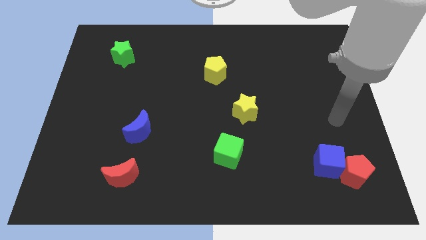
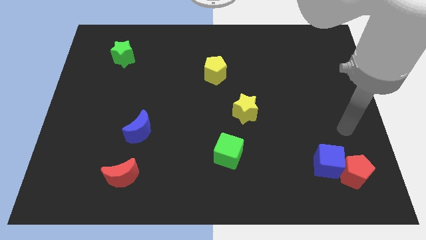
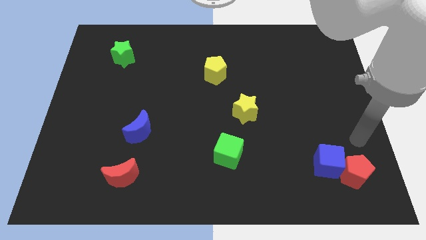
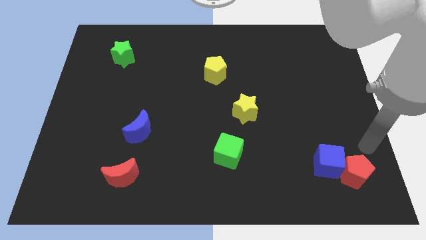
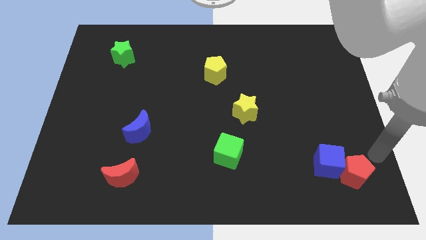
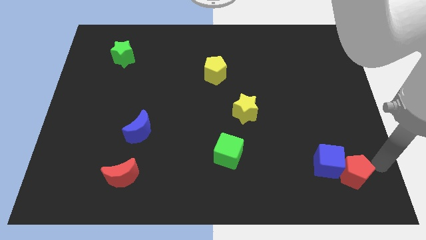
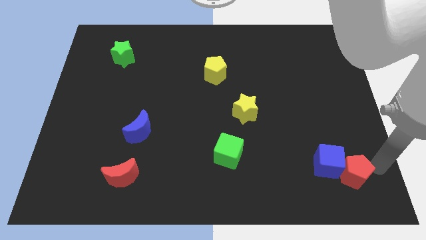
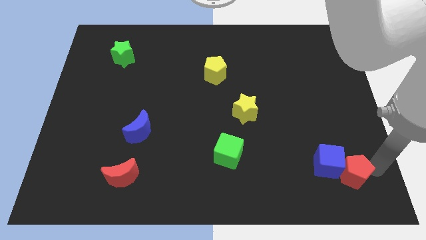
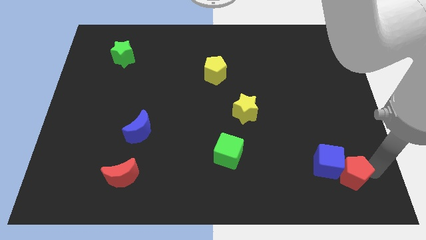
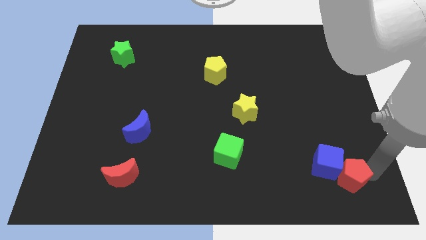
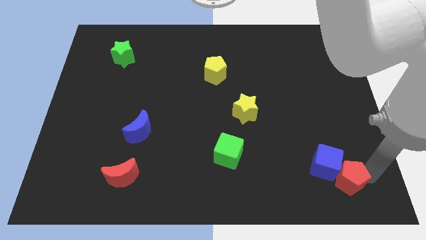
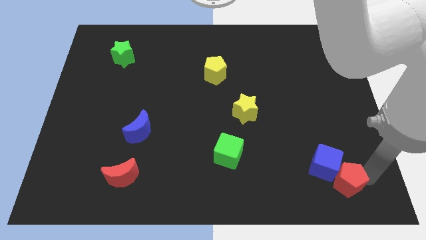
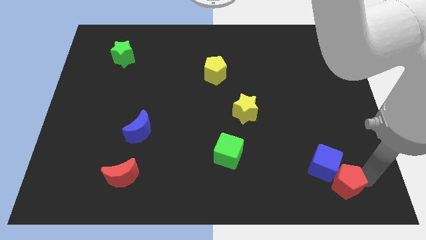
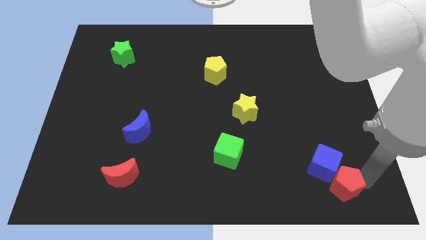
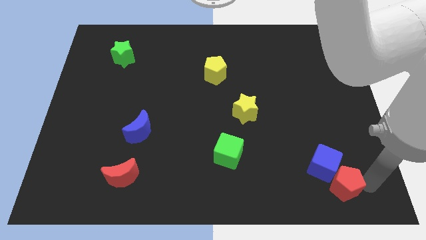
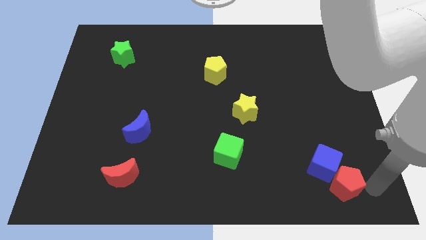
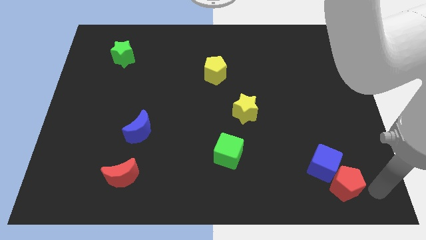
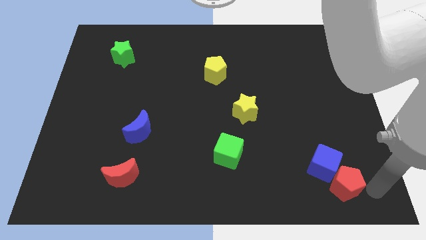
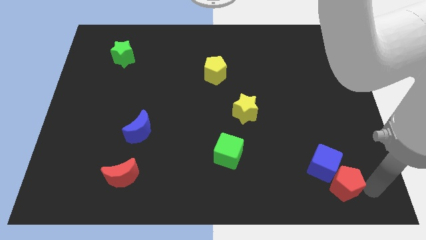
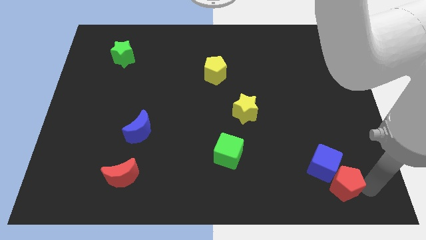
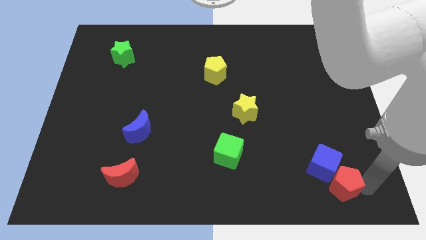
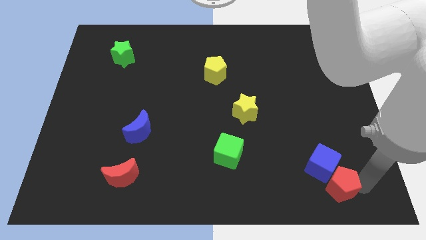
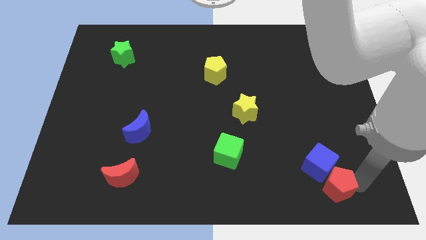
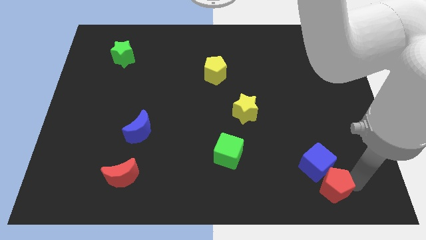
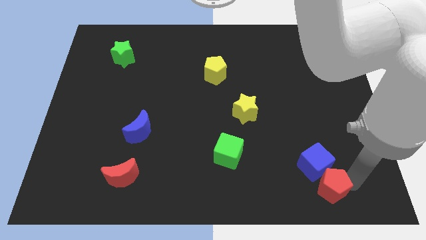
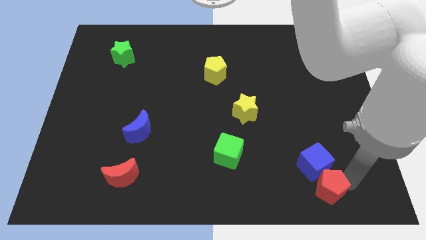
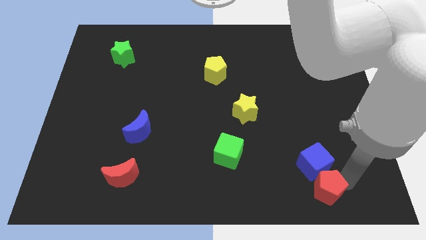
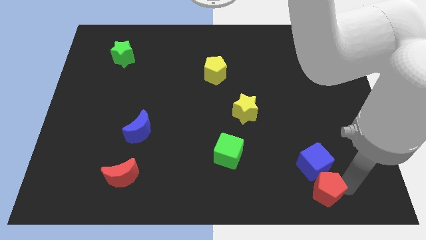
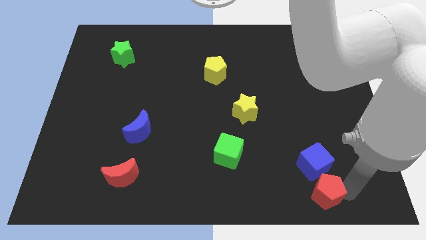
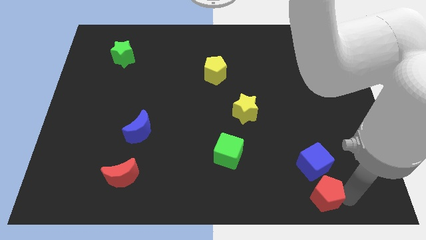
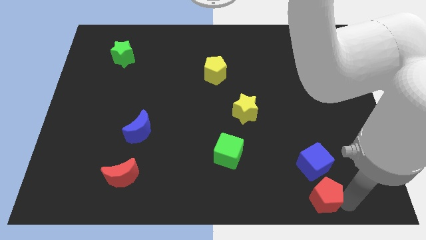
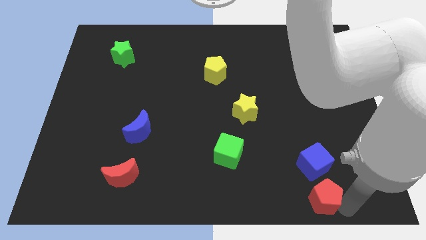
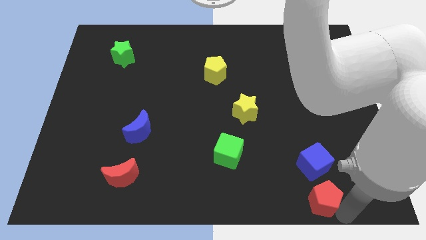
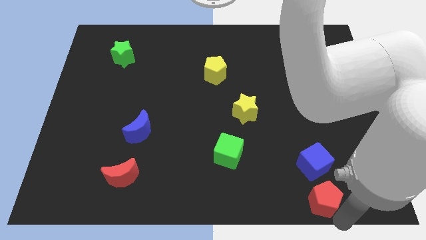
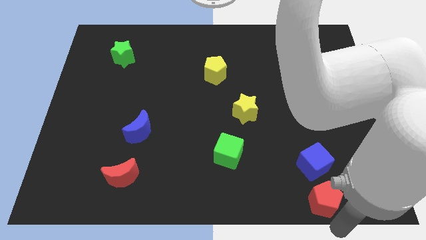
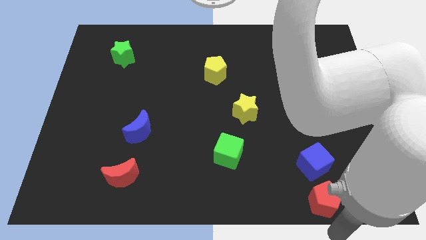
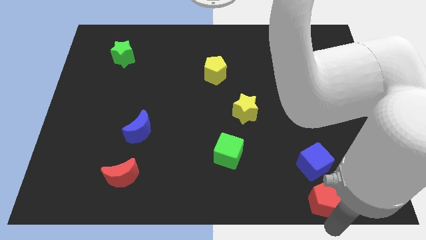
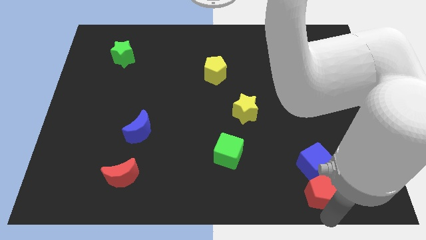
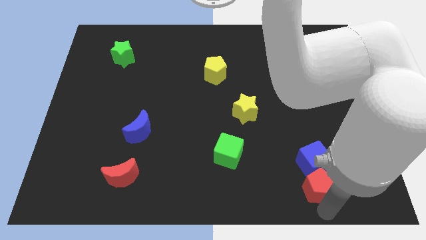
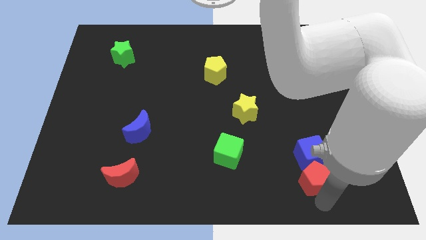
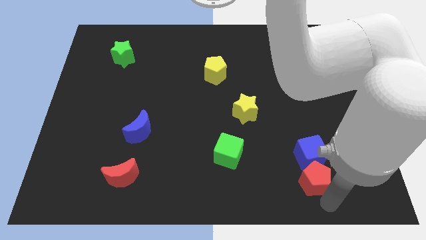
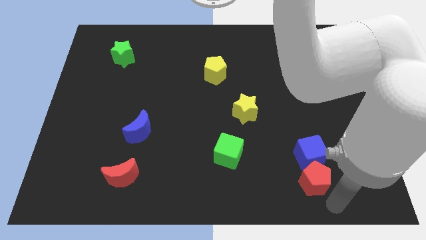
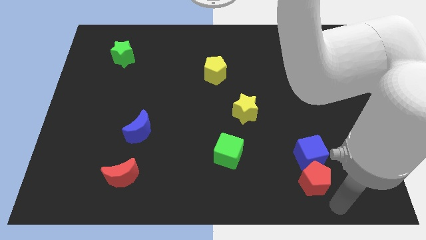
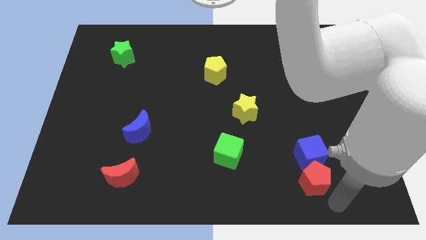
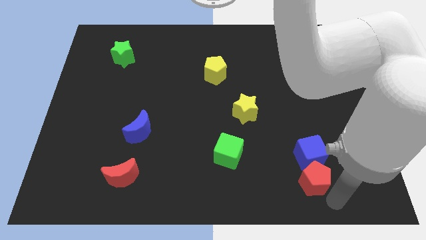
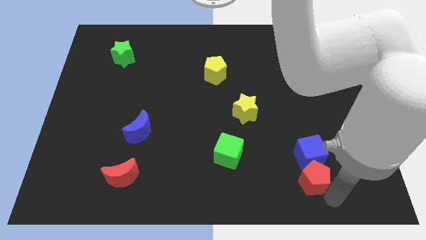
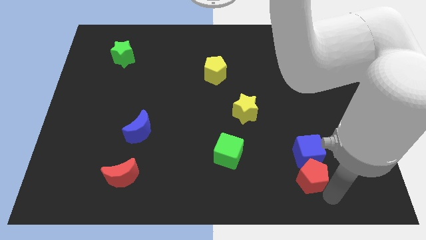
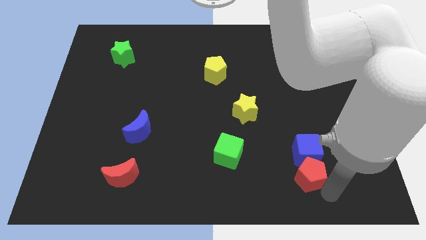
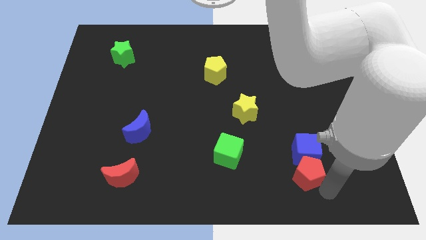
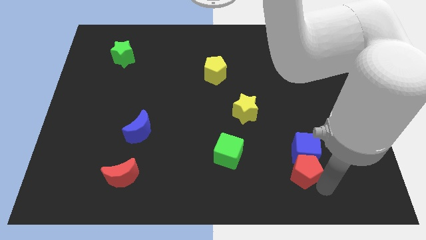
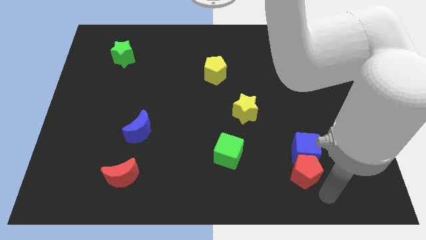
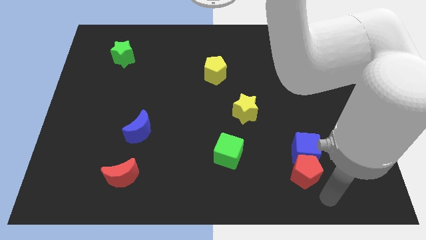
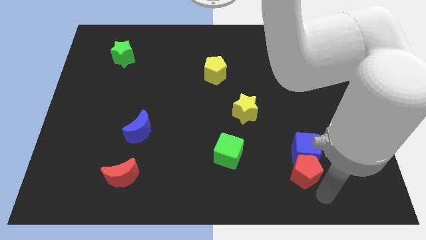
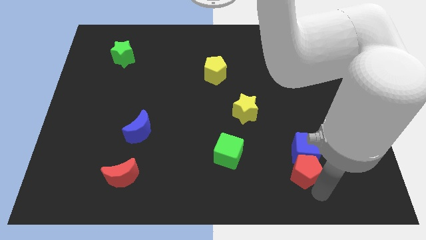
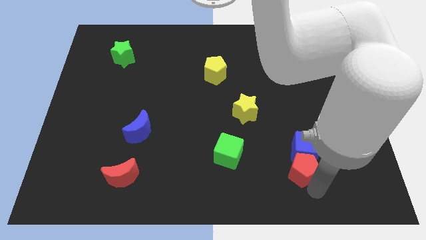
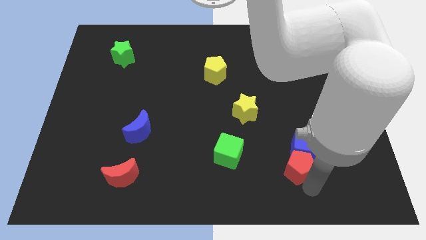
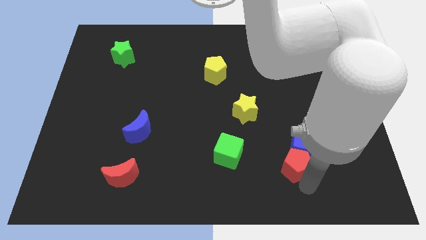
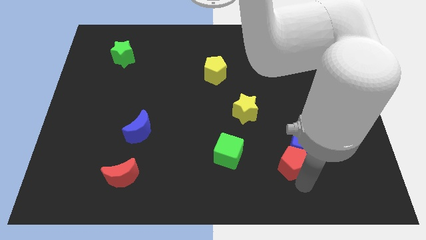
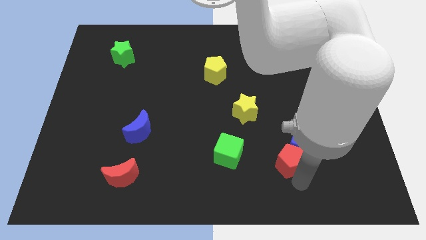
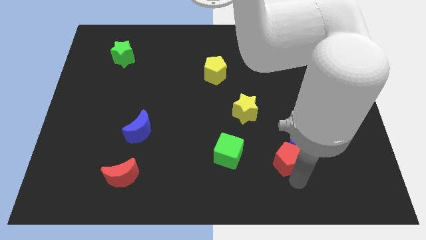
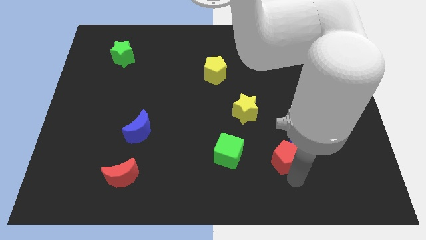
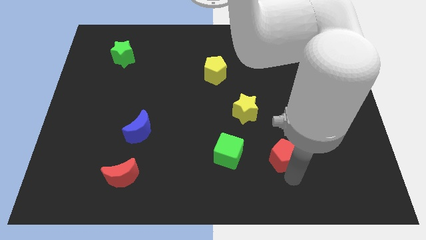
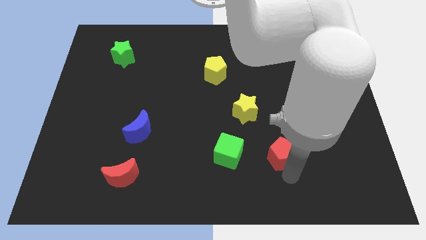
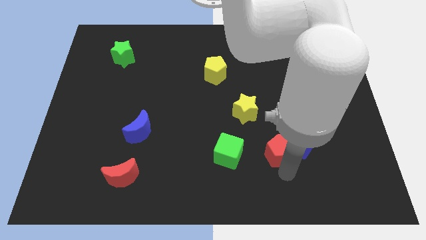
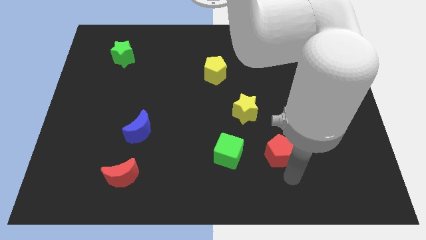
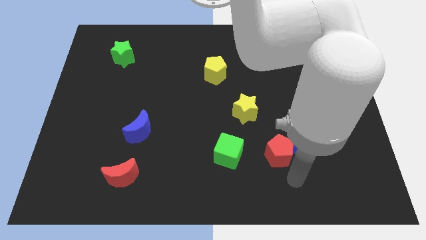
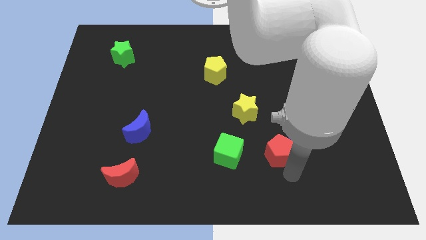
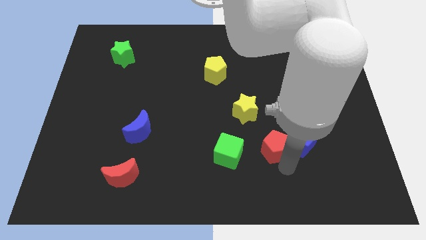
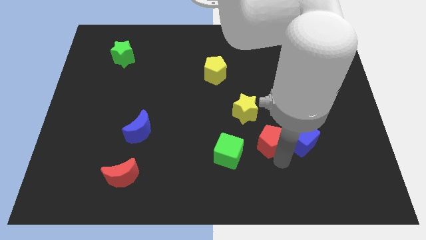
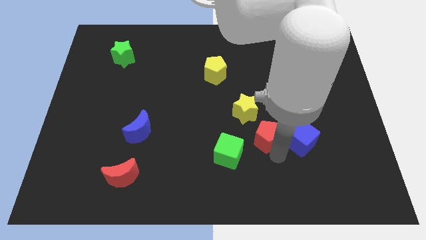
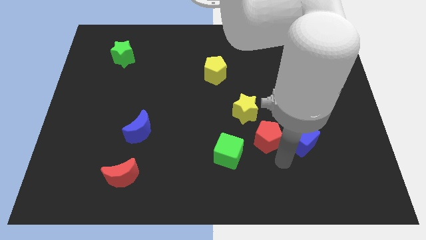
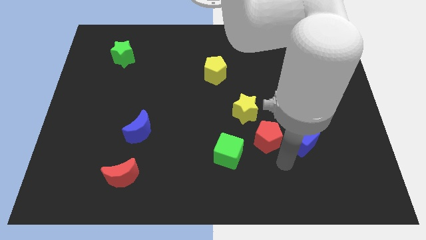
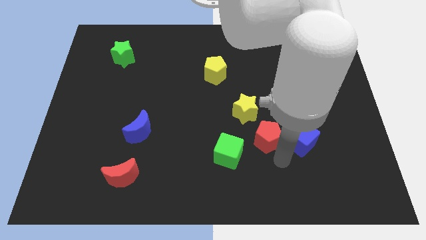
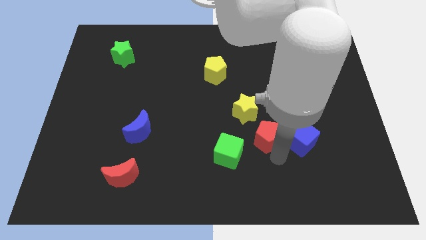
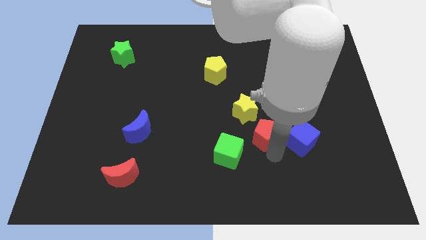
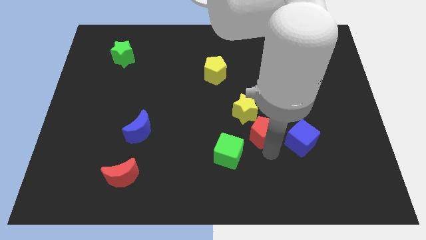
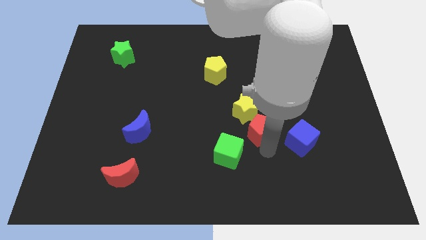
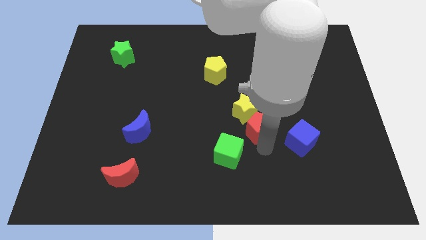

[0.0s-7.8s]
slide the red pentagon next to the yellow star
